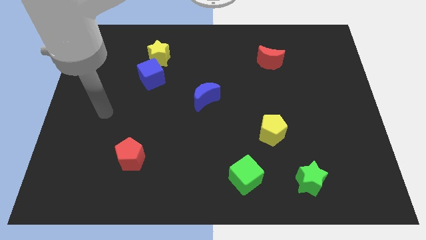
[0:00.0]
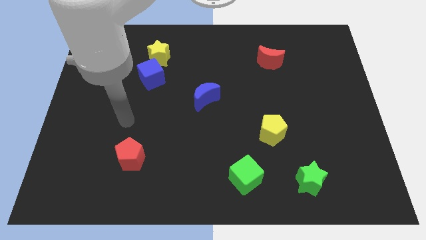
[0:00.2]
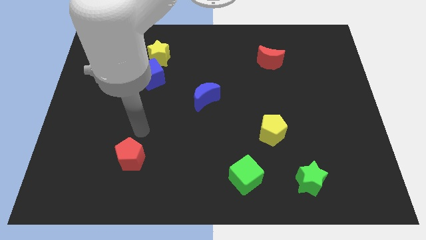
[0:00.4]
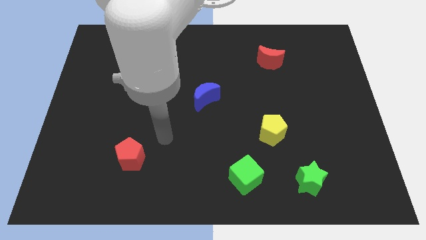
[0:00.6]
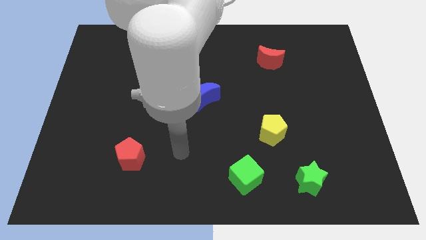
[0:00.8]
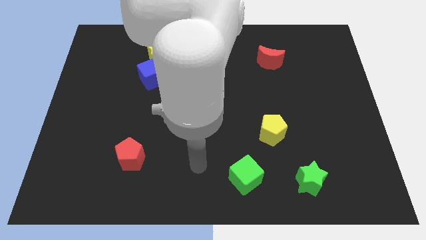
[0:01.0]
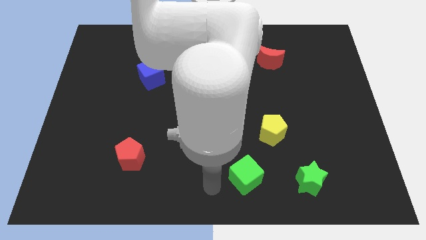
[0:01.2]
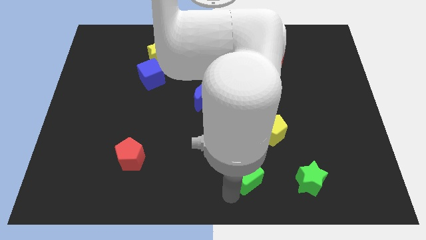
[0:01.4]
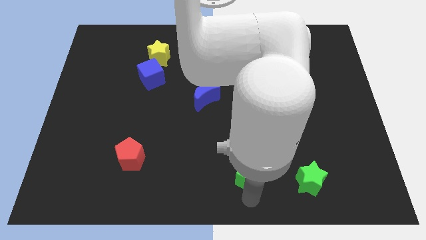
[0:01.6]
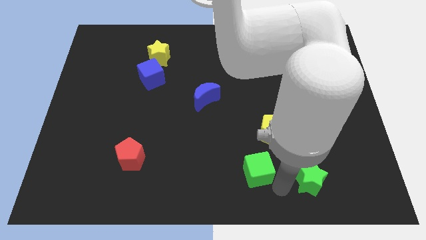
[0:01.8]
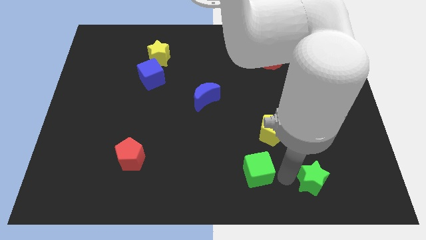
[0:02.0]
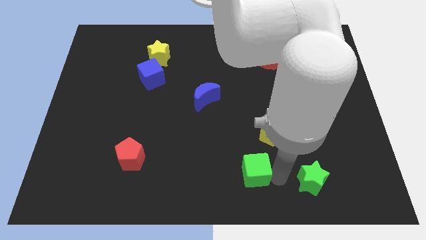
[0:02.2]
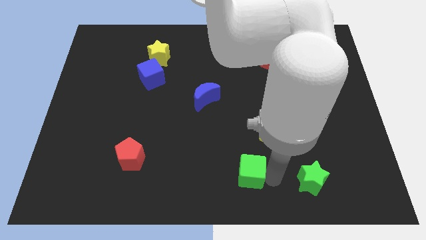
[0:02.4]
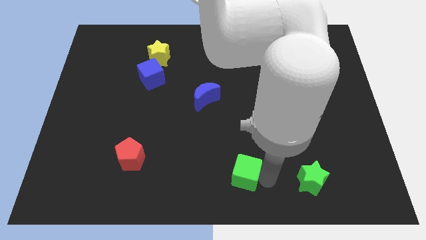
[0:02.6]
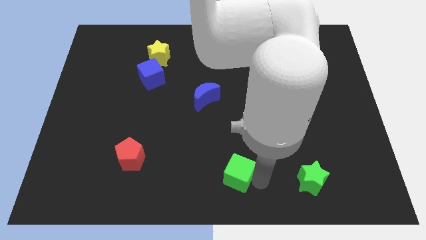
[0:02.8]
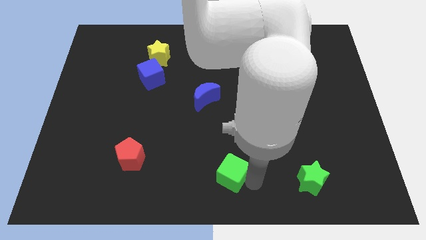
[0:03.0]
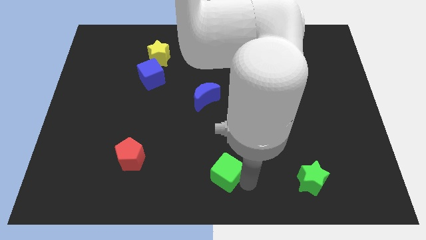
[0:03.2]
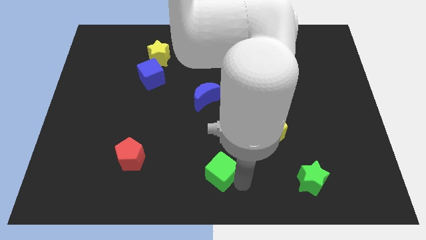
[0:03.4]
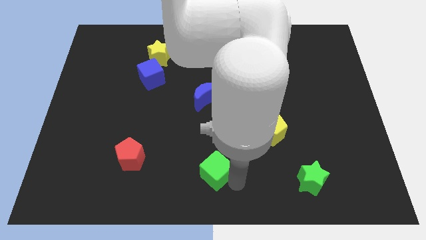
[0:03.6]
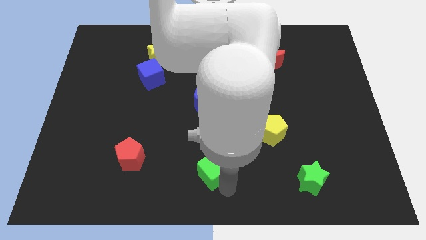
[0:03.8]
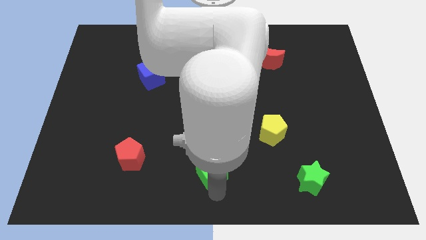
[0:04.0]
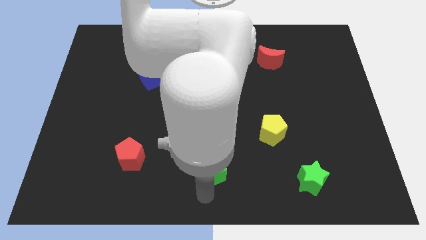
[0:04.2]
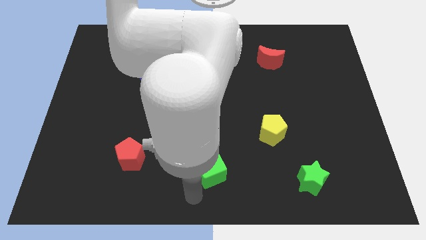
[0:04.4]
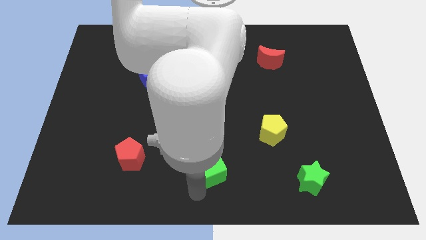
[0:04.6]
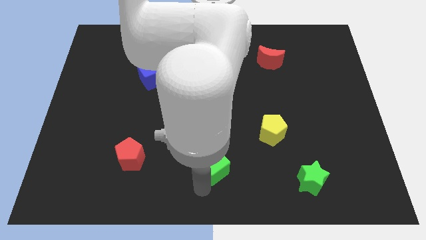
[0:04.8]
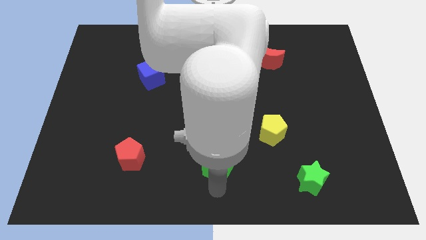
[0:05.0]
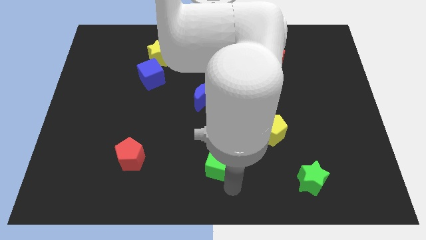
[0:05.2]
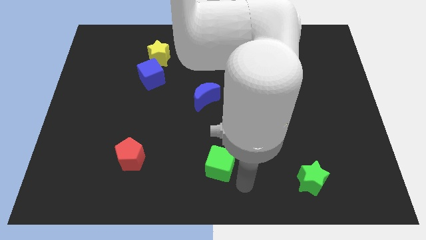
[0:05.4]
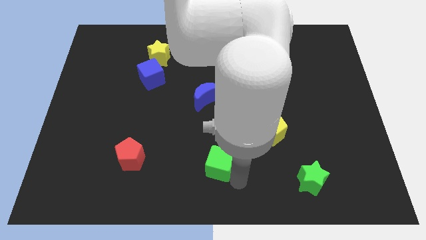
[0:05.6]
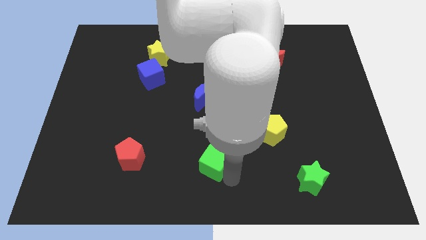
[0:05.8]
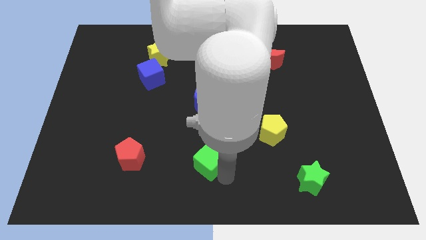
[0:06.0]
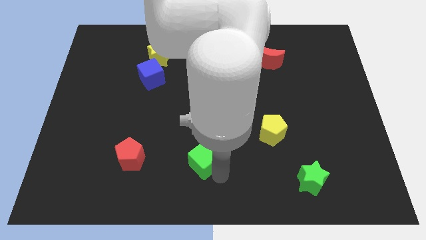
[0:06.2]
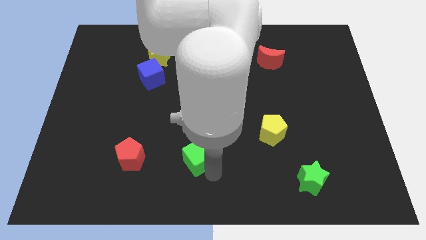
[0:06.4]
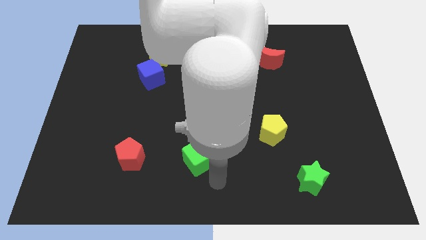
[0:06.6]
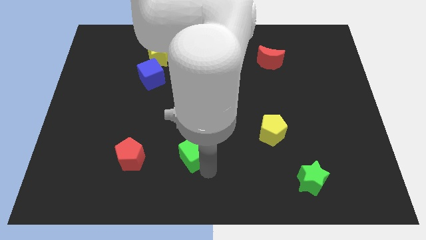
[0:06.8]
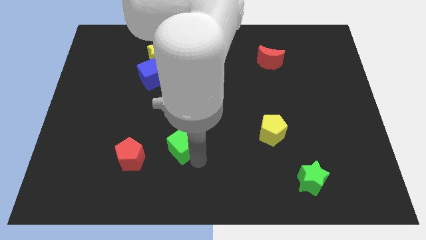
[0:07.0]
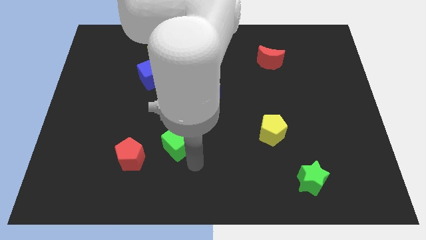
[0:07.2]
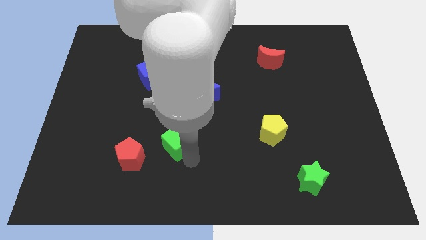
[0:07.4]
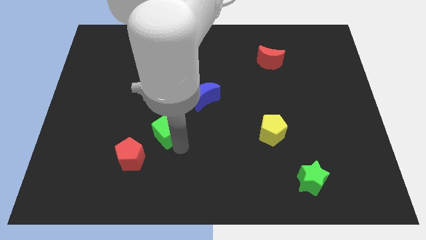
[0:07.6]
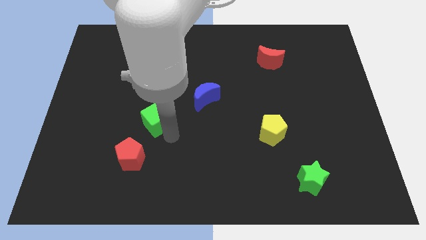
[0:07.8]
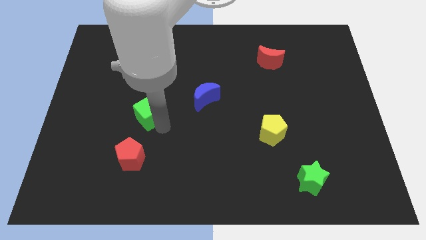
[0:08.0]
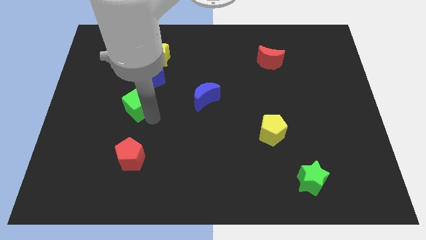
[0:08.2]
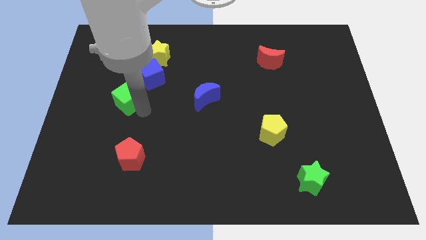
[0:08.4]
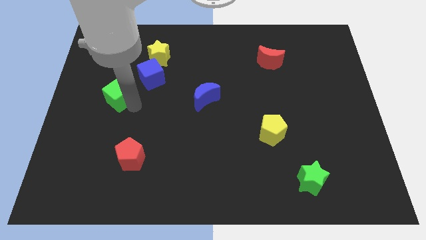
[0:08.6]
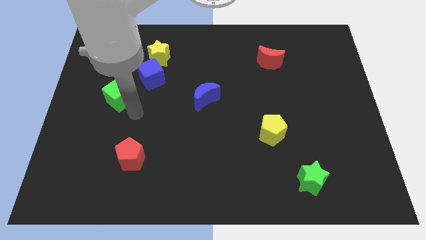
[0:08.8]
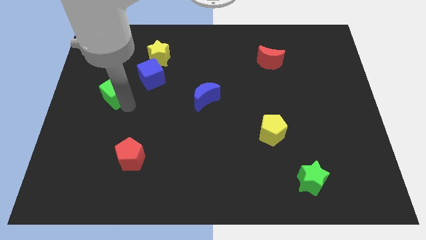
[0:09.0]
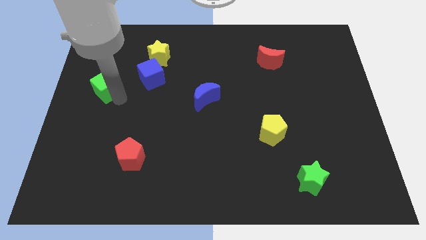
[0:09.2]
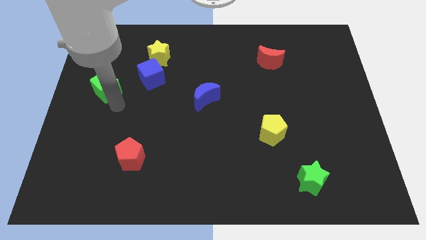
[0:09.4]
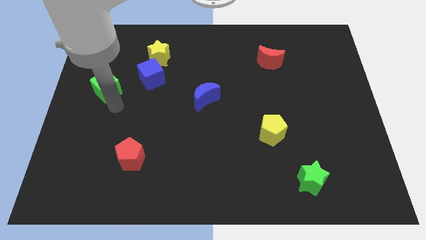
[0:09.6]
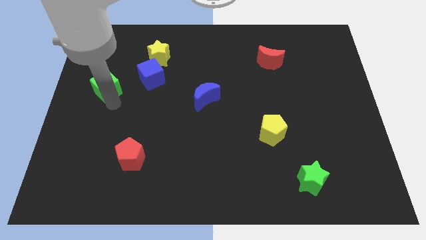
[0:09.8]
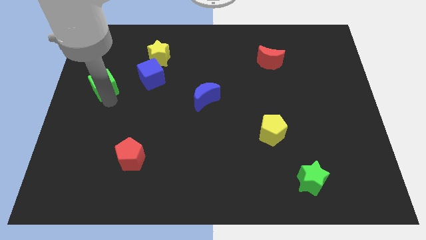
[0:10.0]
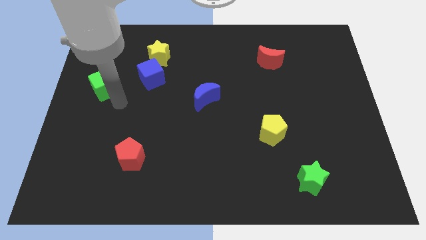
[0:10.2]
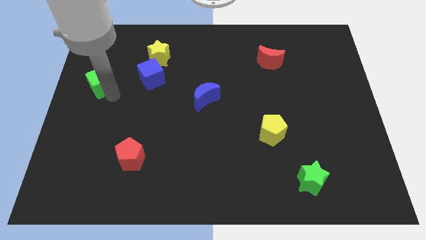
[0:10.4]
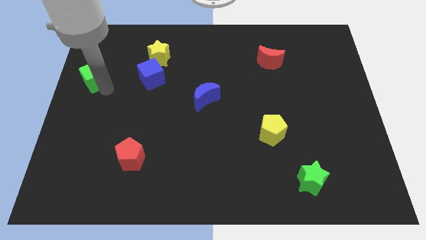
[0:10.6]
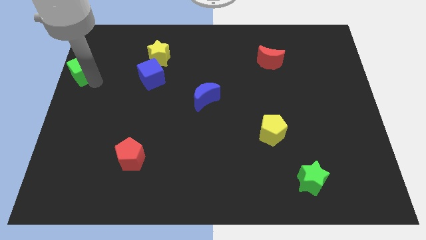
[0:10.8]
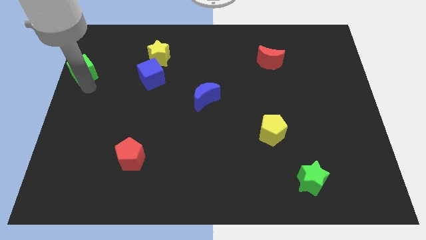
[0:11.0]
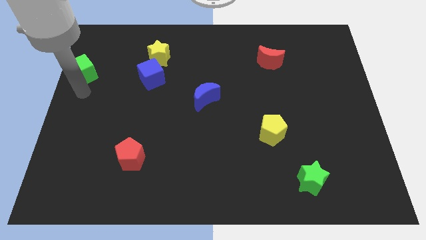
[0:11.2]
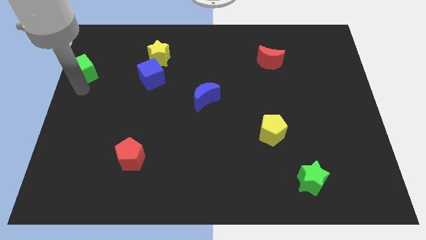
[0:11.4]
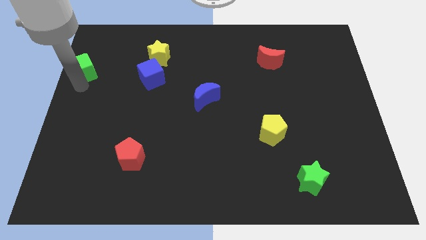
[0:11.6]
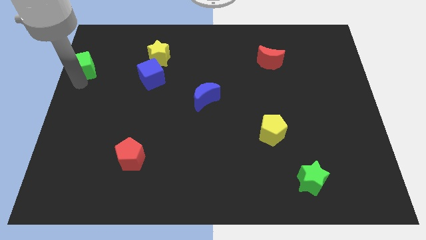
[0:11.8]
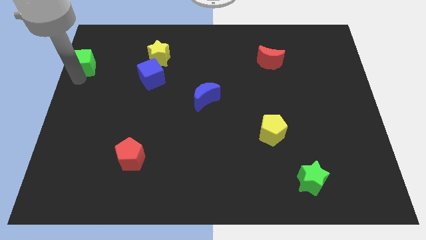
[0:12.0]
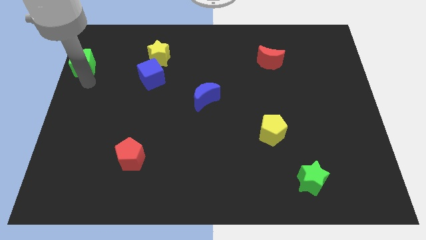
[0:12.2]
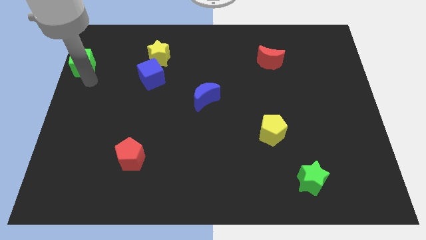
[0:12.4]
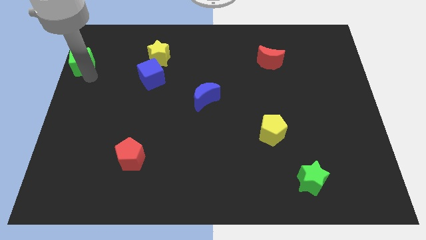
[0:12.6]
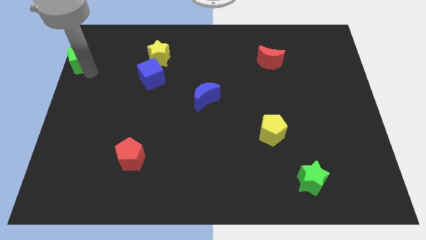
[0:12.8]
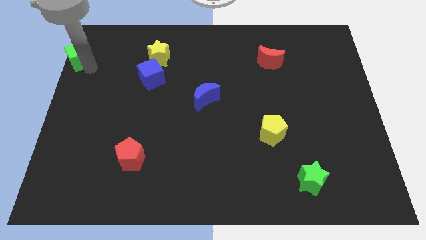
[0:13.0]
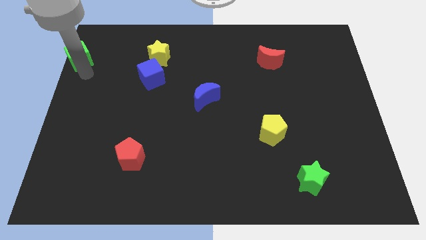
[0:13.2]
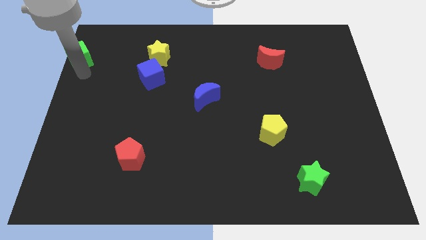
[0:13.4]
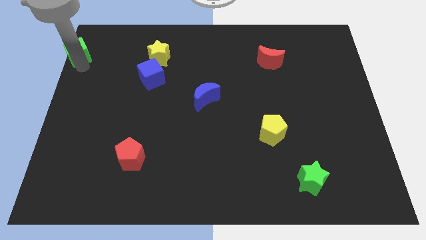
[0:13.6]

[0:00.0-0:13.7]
push the green cube to the top left
